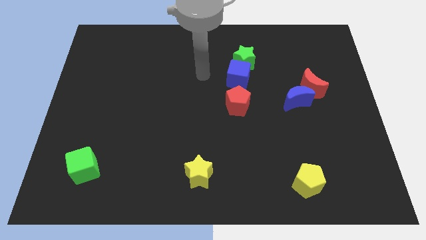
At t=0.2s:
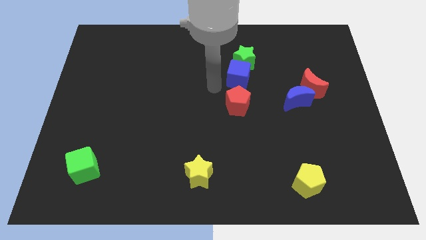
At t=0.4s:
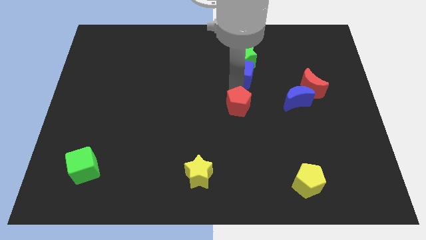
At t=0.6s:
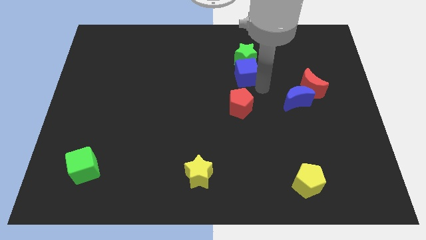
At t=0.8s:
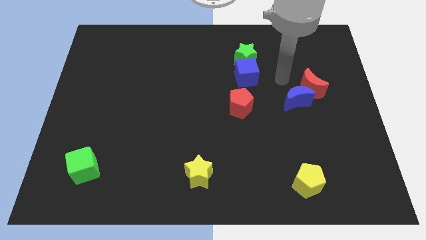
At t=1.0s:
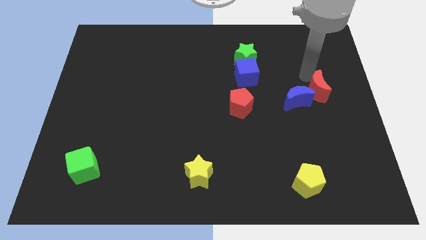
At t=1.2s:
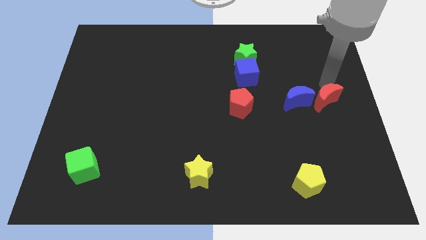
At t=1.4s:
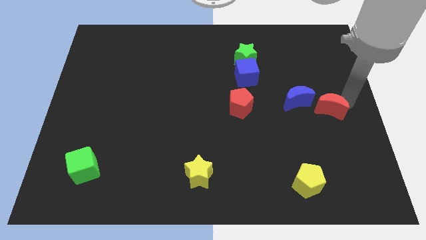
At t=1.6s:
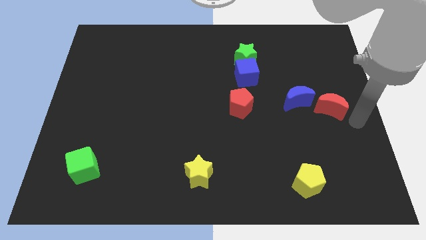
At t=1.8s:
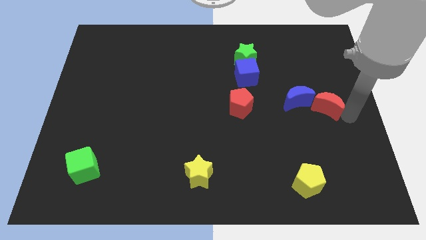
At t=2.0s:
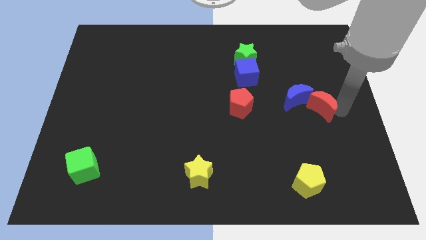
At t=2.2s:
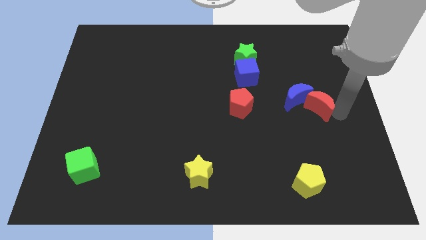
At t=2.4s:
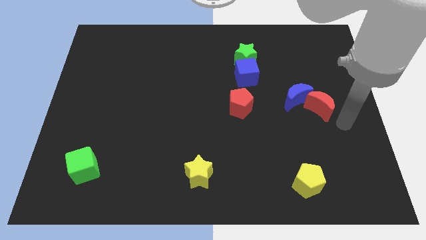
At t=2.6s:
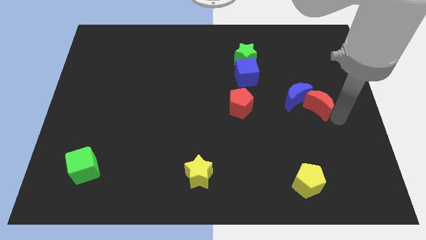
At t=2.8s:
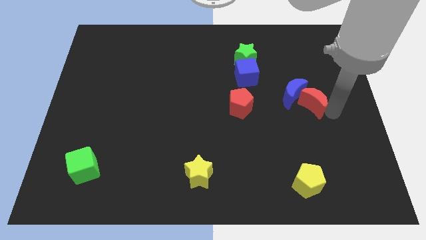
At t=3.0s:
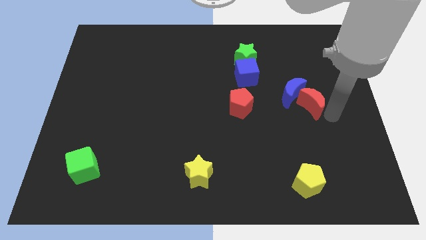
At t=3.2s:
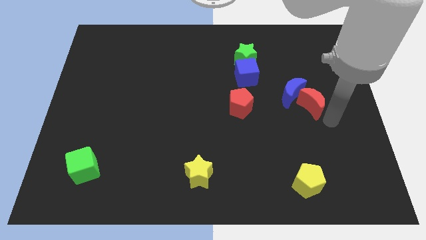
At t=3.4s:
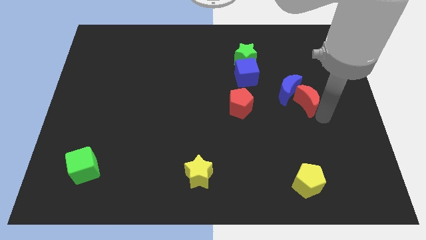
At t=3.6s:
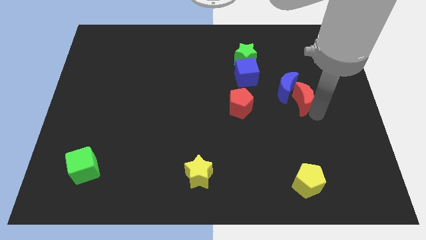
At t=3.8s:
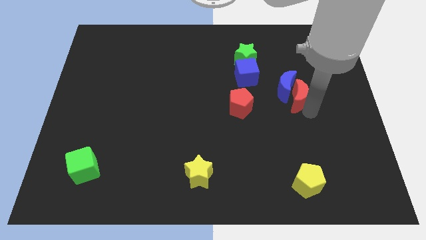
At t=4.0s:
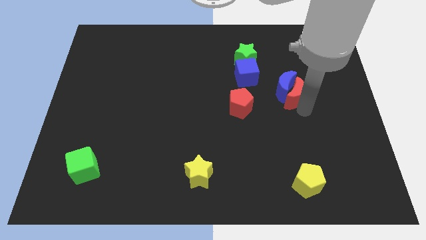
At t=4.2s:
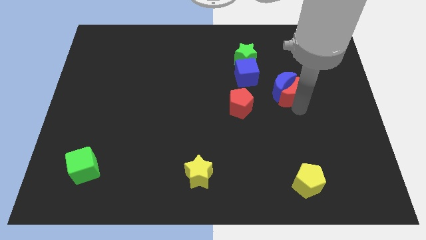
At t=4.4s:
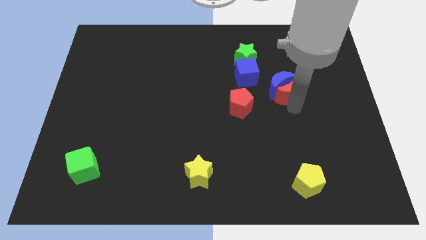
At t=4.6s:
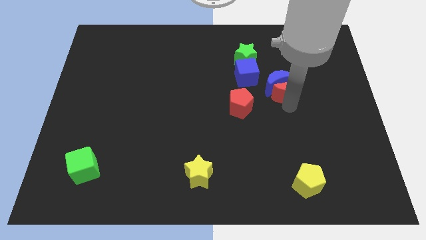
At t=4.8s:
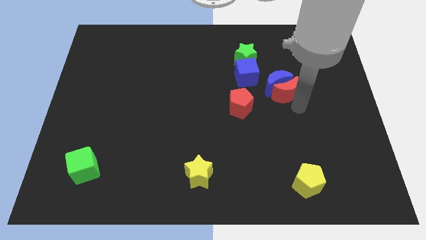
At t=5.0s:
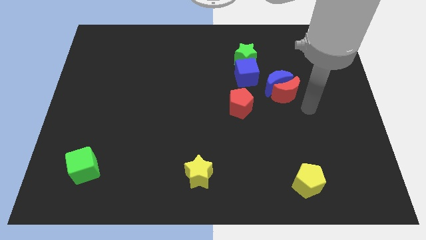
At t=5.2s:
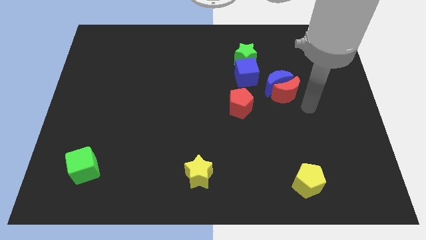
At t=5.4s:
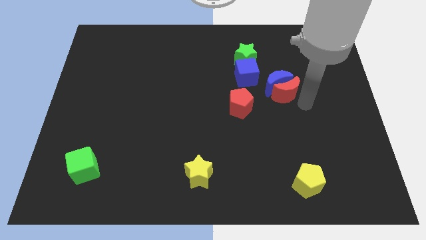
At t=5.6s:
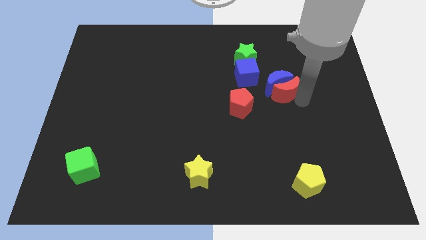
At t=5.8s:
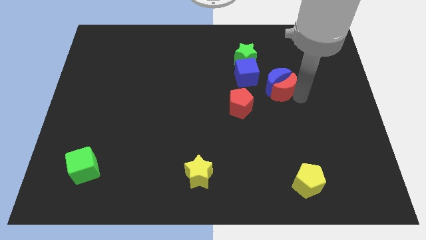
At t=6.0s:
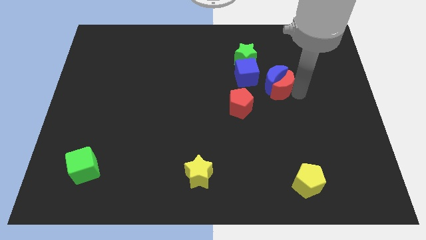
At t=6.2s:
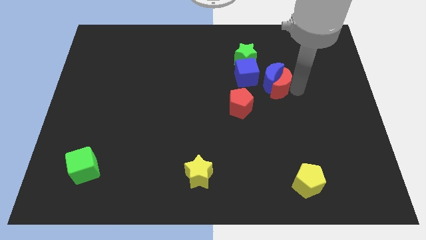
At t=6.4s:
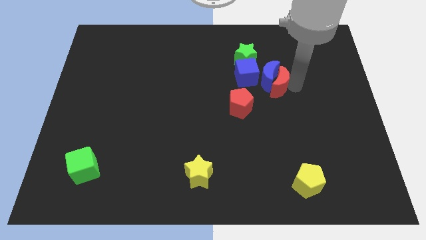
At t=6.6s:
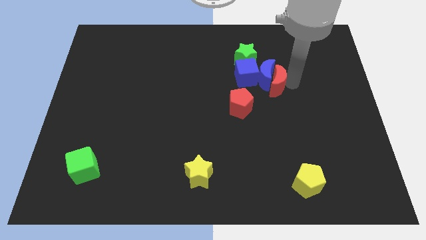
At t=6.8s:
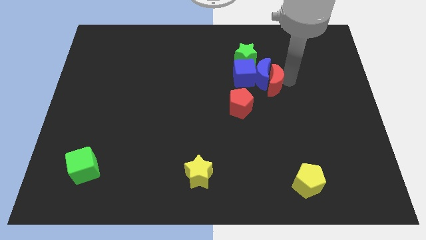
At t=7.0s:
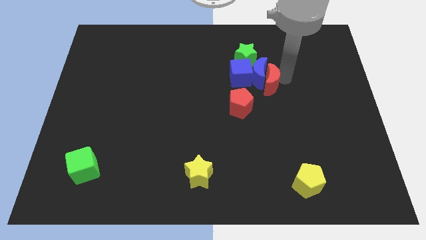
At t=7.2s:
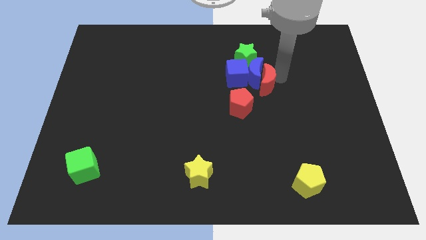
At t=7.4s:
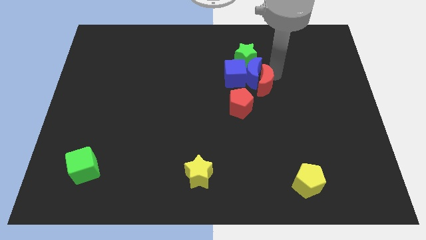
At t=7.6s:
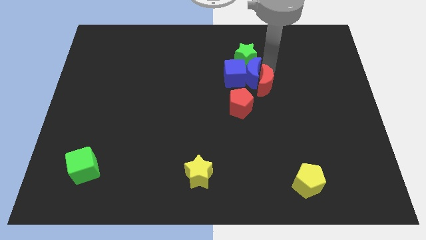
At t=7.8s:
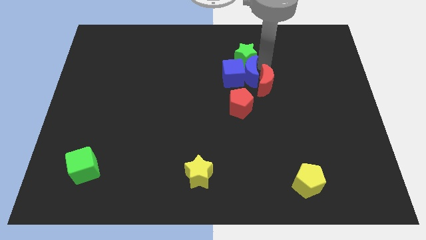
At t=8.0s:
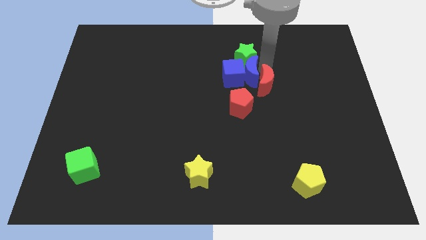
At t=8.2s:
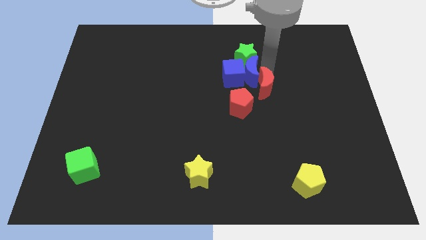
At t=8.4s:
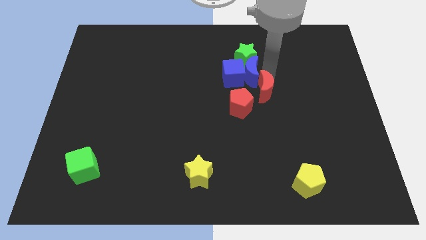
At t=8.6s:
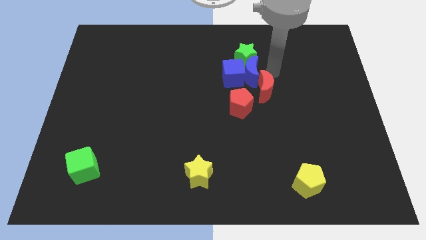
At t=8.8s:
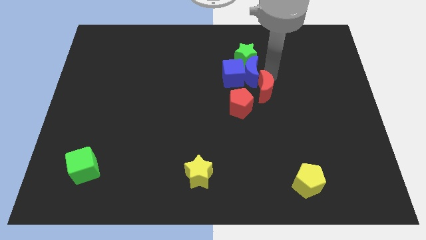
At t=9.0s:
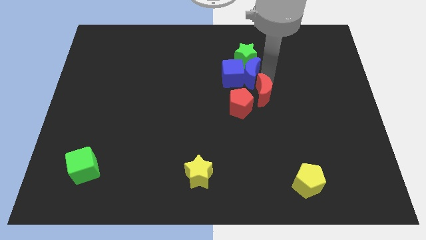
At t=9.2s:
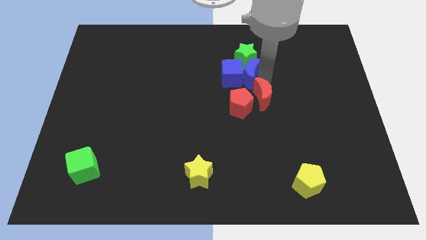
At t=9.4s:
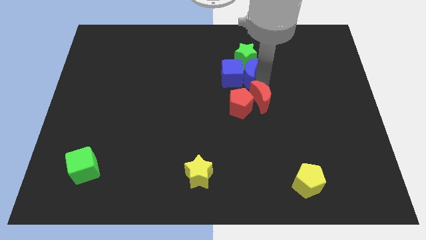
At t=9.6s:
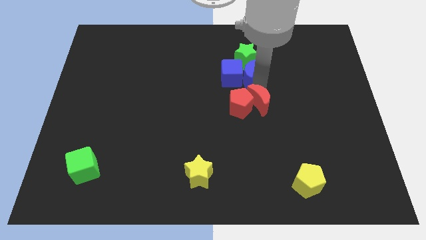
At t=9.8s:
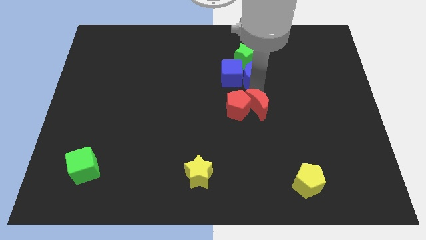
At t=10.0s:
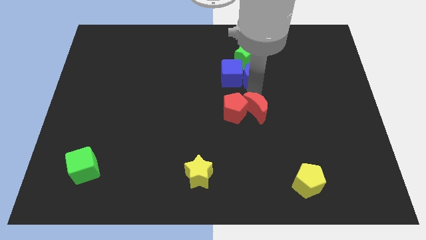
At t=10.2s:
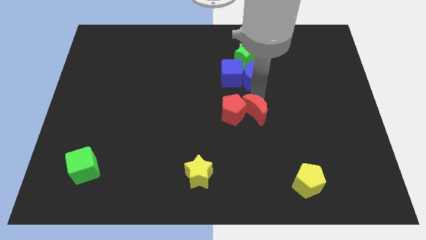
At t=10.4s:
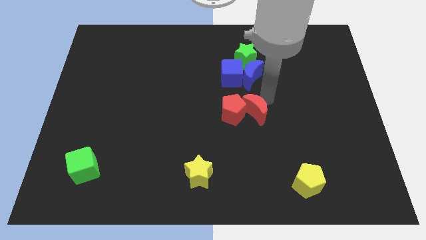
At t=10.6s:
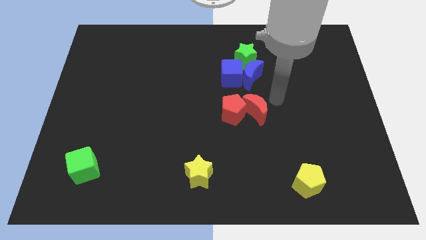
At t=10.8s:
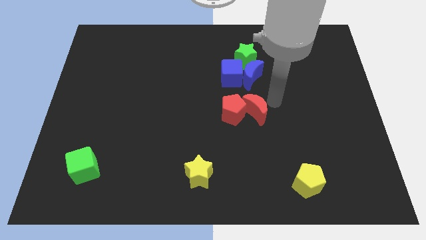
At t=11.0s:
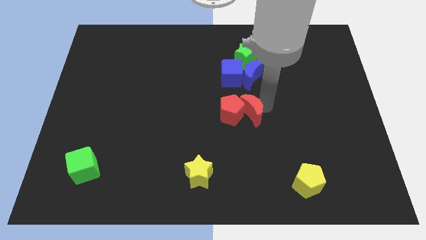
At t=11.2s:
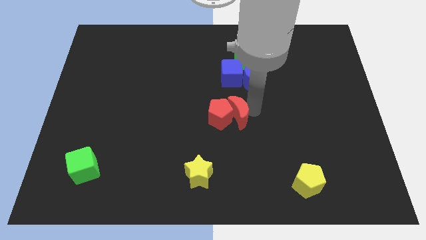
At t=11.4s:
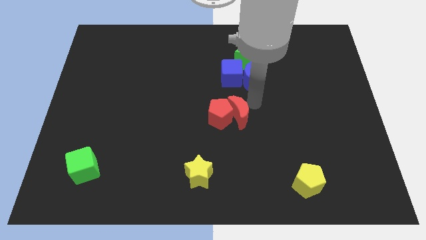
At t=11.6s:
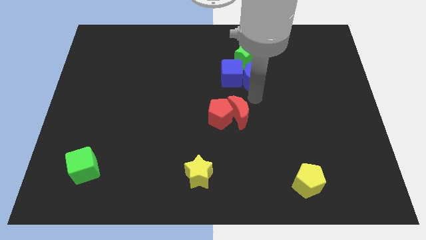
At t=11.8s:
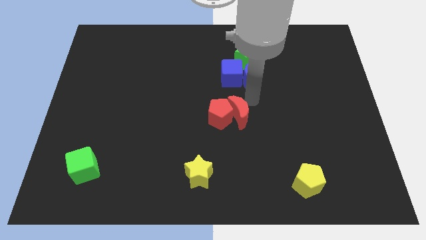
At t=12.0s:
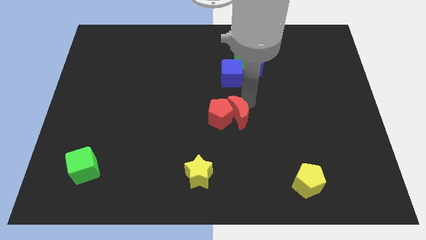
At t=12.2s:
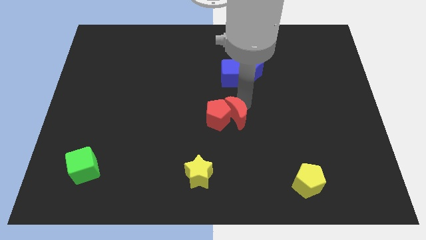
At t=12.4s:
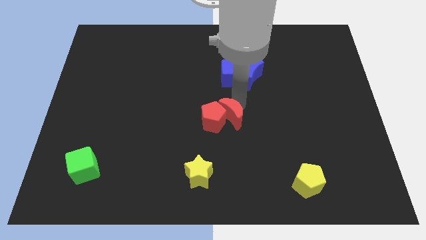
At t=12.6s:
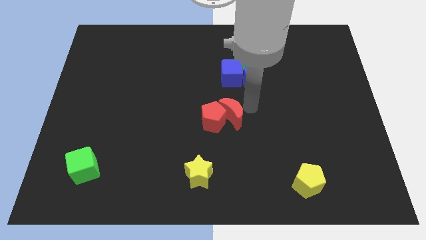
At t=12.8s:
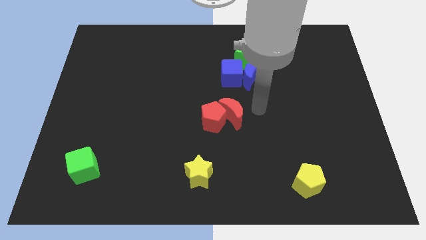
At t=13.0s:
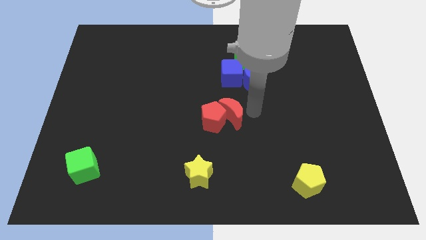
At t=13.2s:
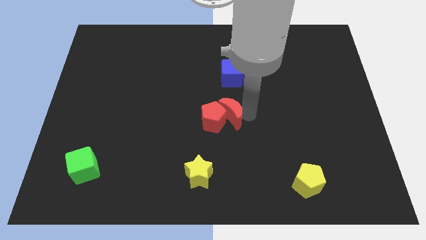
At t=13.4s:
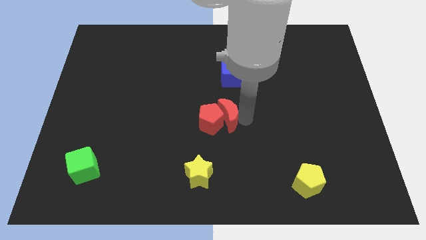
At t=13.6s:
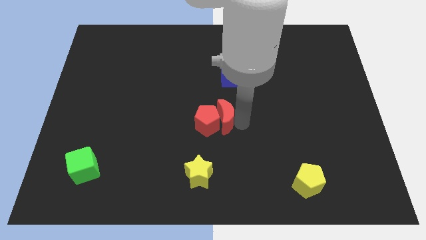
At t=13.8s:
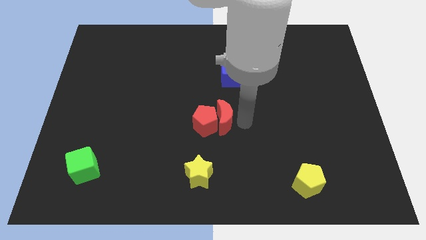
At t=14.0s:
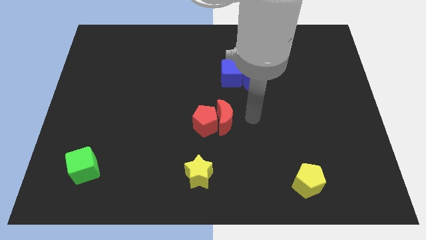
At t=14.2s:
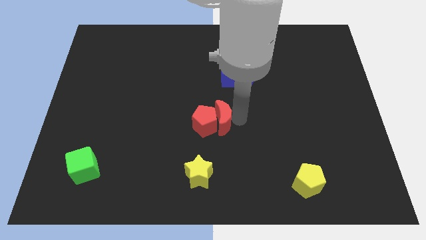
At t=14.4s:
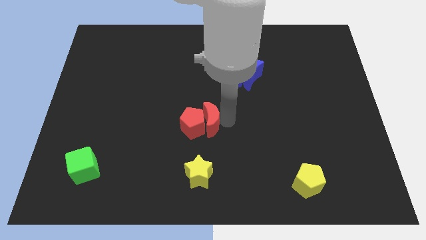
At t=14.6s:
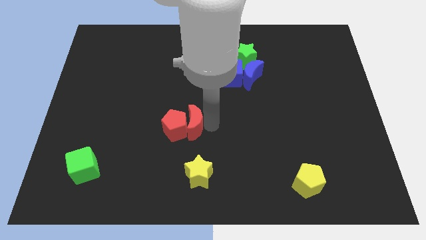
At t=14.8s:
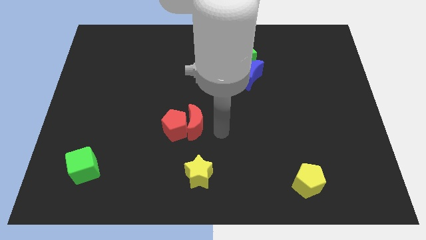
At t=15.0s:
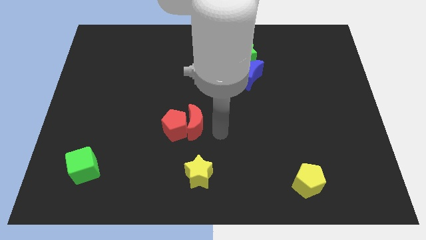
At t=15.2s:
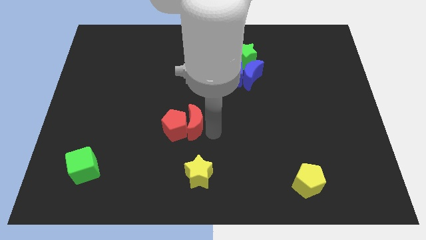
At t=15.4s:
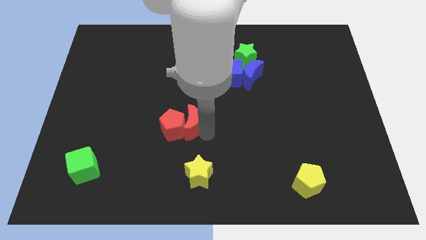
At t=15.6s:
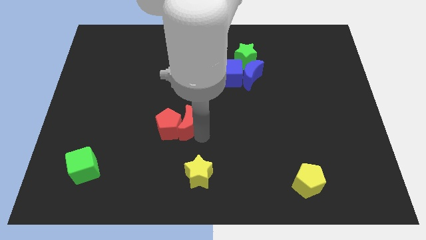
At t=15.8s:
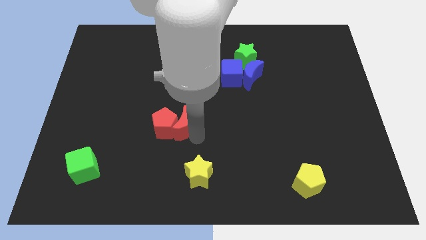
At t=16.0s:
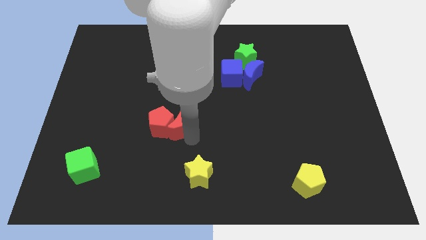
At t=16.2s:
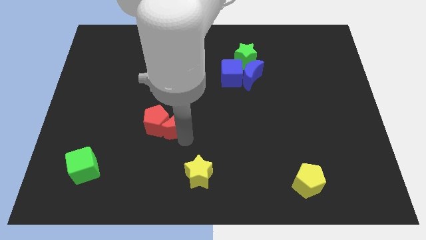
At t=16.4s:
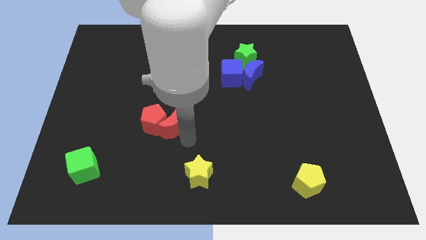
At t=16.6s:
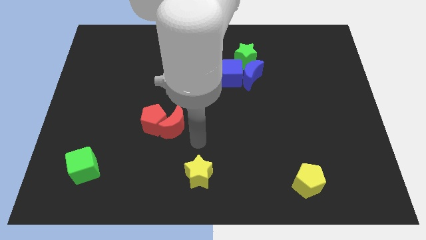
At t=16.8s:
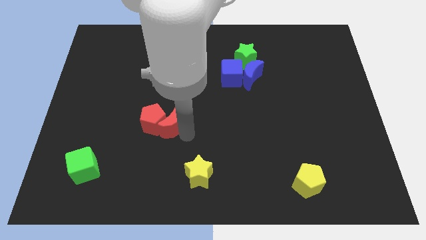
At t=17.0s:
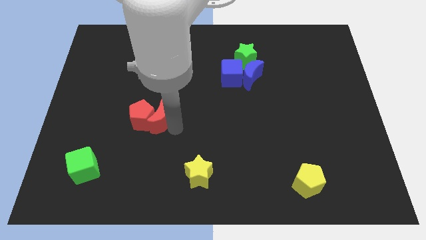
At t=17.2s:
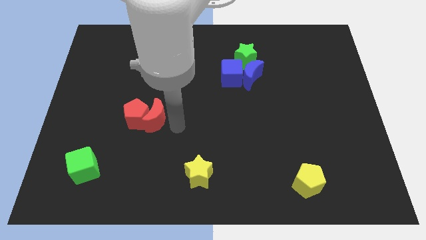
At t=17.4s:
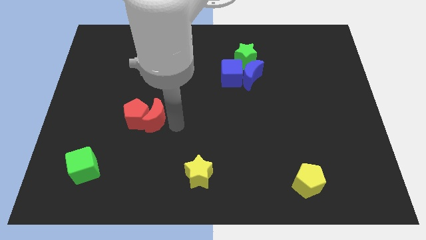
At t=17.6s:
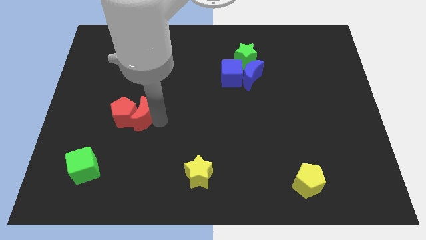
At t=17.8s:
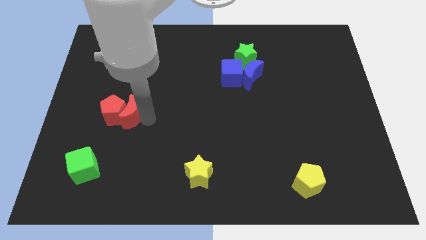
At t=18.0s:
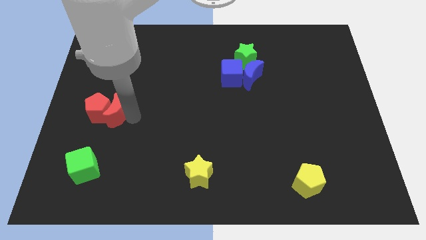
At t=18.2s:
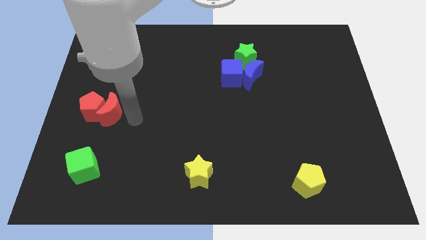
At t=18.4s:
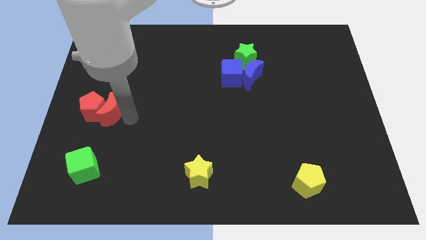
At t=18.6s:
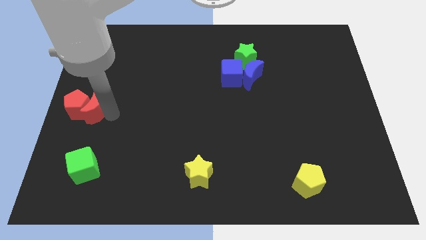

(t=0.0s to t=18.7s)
push the red moon to the left side
